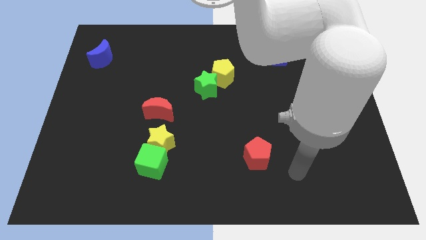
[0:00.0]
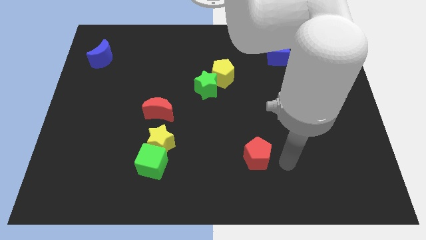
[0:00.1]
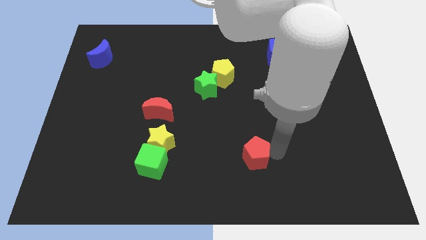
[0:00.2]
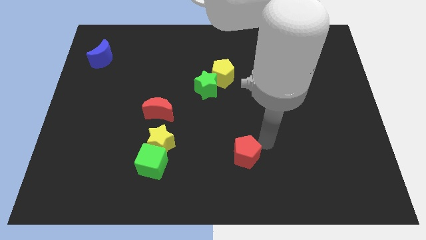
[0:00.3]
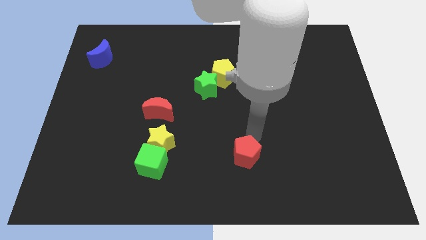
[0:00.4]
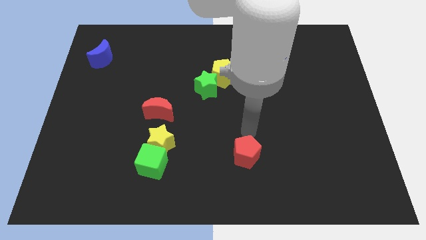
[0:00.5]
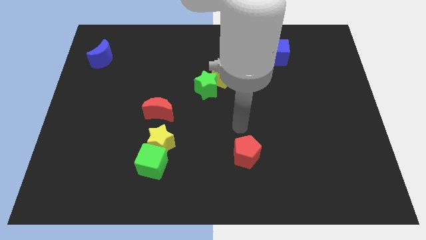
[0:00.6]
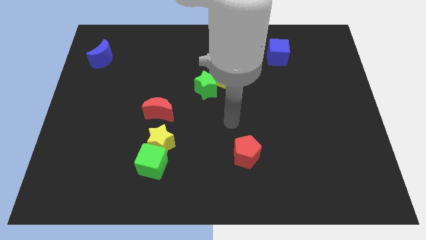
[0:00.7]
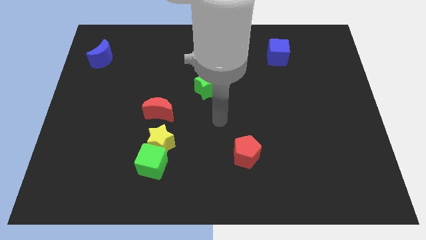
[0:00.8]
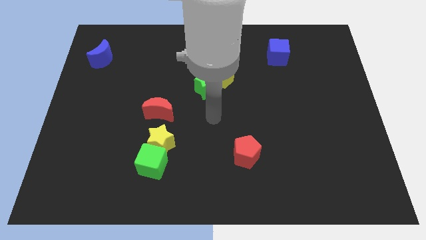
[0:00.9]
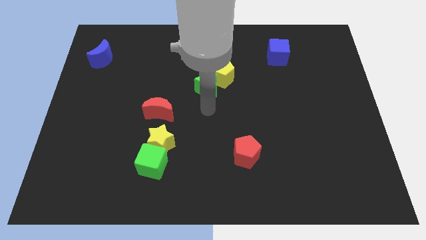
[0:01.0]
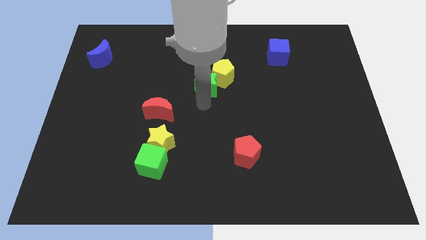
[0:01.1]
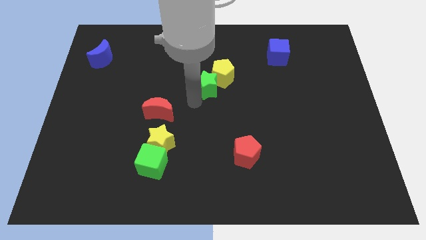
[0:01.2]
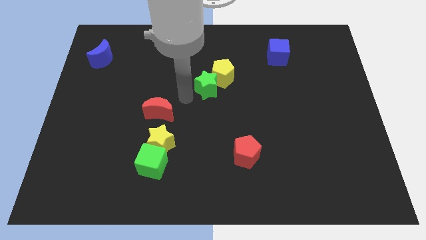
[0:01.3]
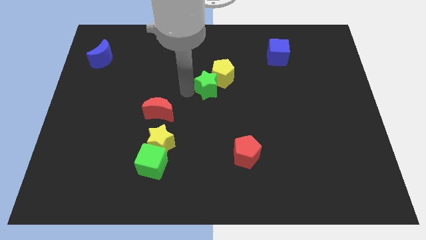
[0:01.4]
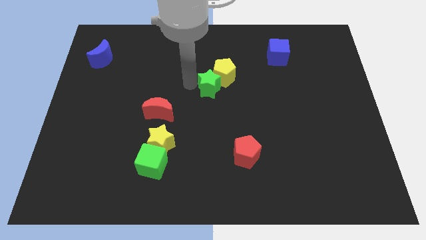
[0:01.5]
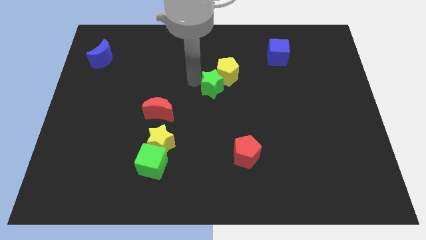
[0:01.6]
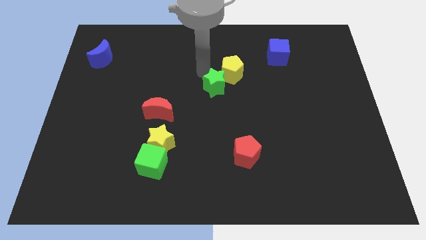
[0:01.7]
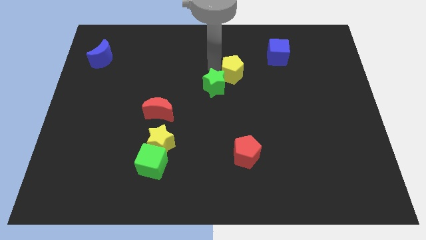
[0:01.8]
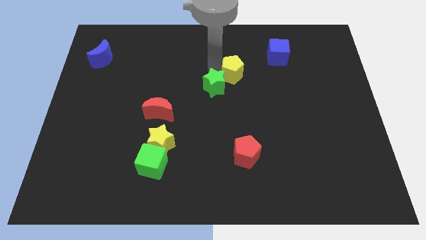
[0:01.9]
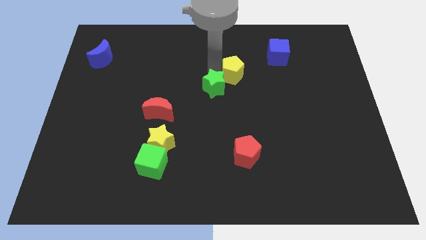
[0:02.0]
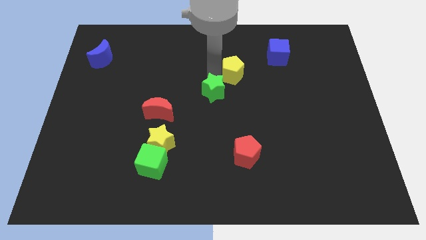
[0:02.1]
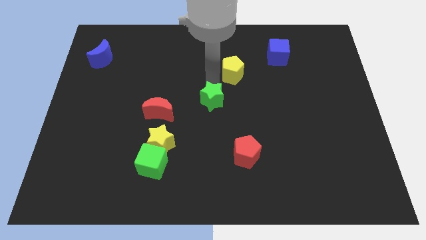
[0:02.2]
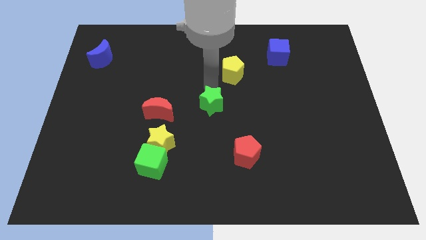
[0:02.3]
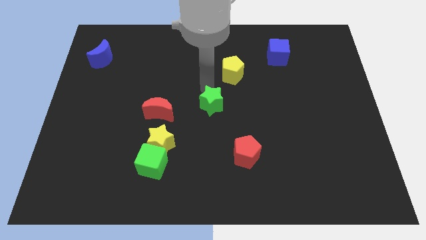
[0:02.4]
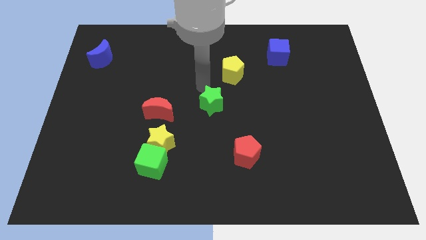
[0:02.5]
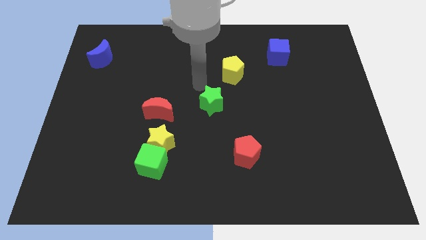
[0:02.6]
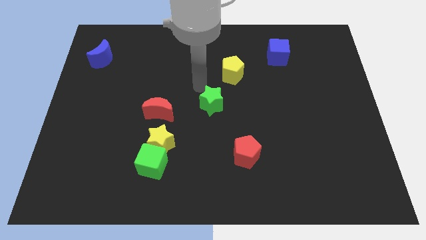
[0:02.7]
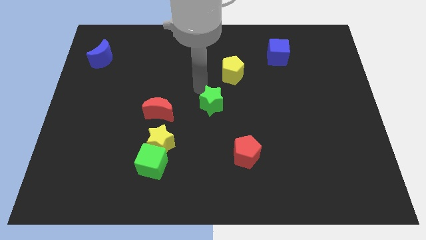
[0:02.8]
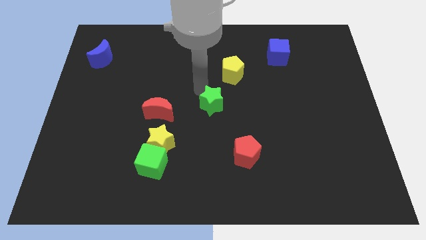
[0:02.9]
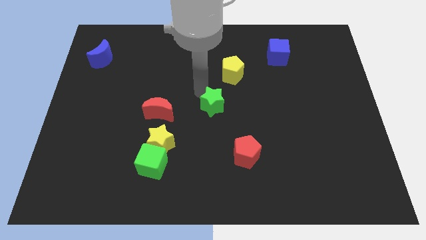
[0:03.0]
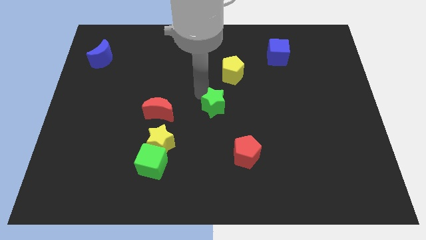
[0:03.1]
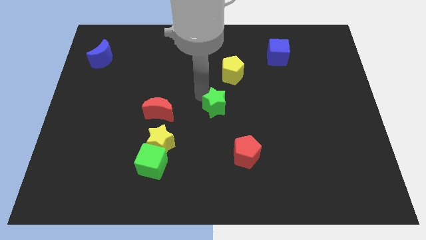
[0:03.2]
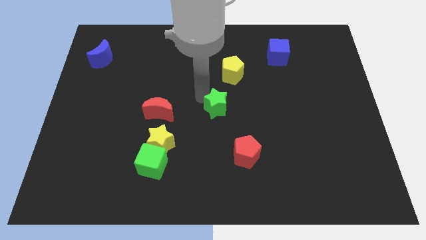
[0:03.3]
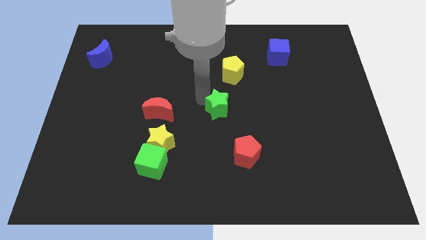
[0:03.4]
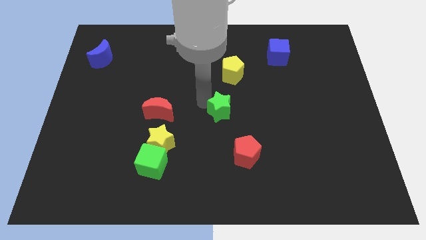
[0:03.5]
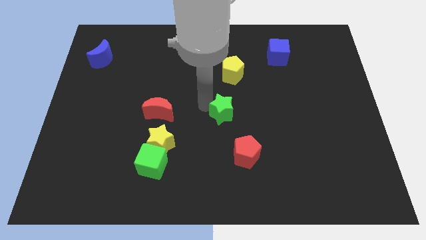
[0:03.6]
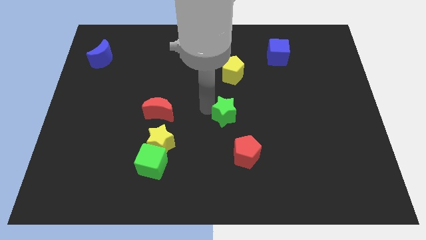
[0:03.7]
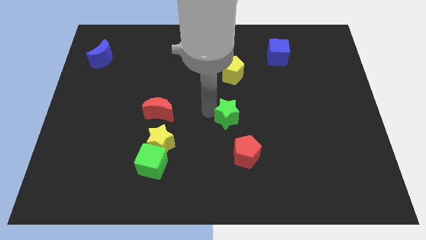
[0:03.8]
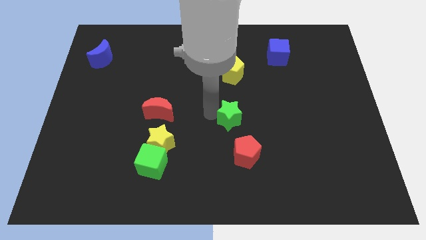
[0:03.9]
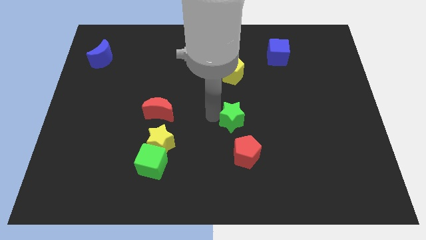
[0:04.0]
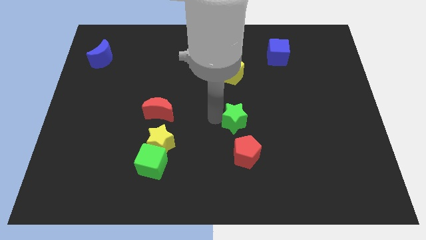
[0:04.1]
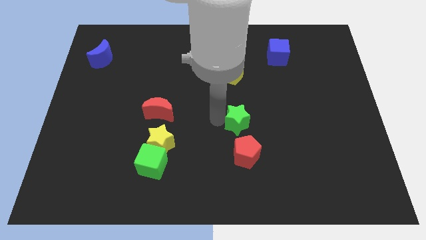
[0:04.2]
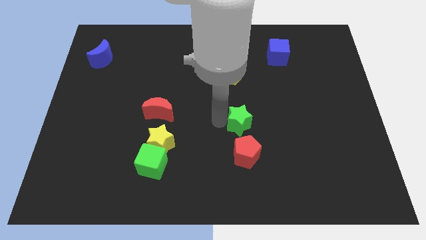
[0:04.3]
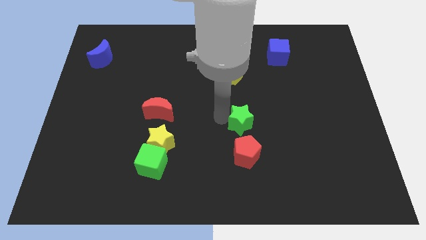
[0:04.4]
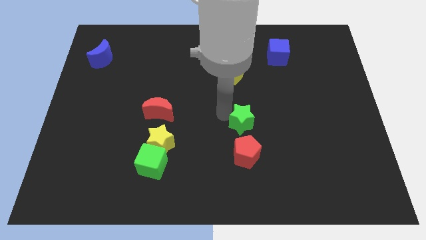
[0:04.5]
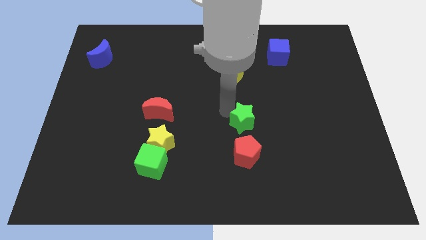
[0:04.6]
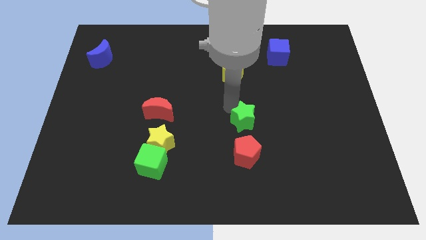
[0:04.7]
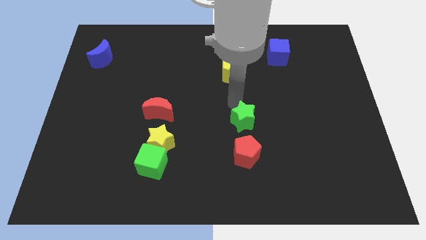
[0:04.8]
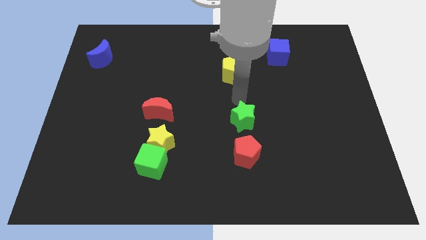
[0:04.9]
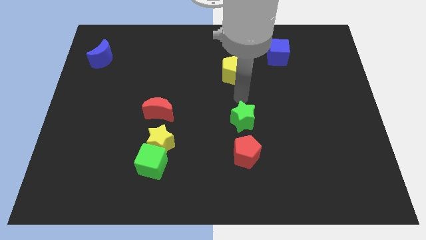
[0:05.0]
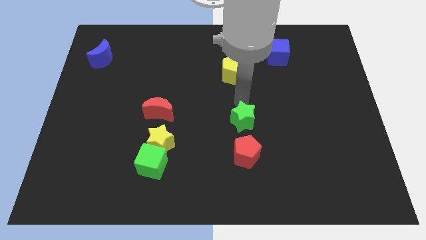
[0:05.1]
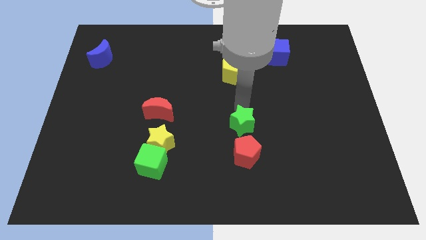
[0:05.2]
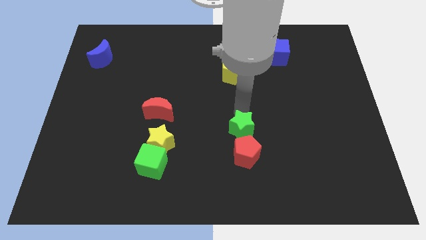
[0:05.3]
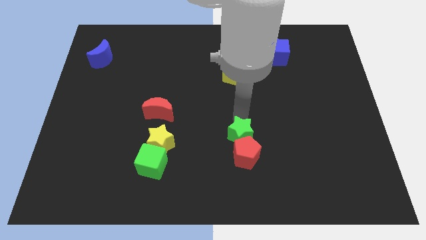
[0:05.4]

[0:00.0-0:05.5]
move the green star close to the red pentagon

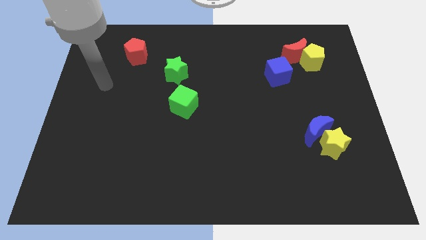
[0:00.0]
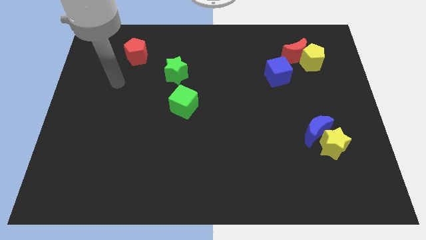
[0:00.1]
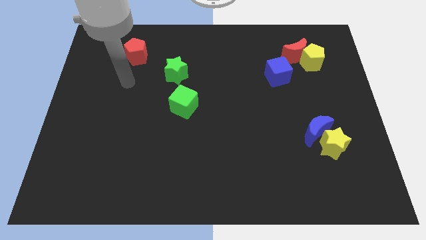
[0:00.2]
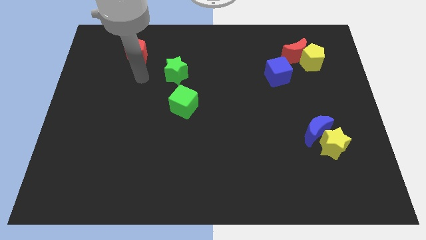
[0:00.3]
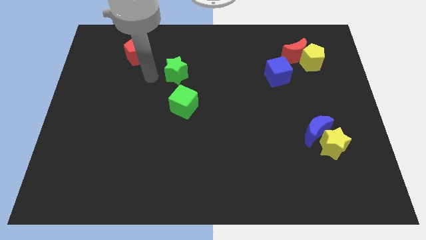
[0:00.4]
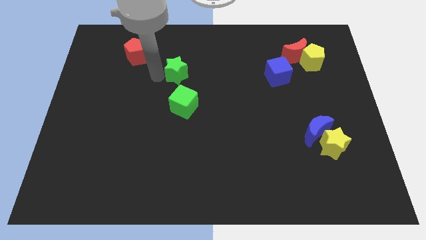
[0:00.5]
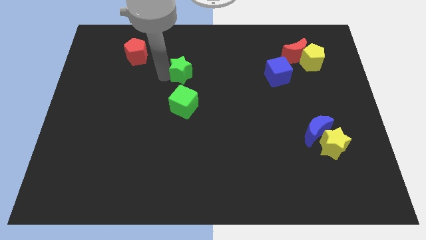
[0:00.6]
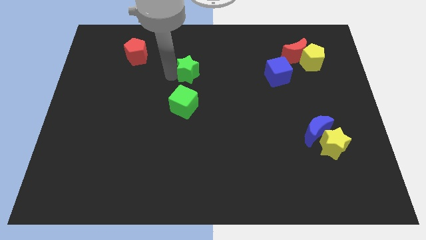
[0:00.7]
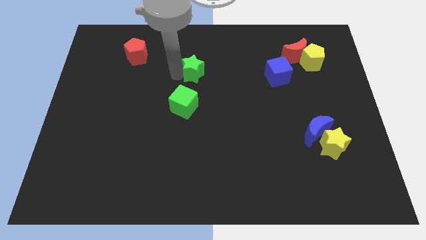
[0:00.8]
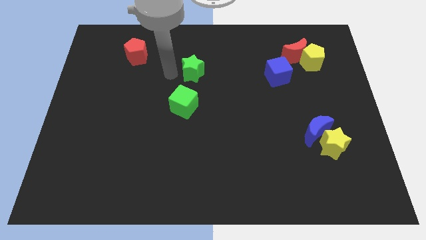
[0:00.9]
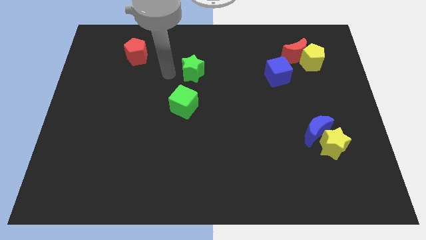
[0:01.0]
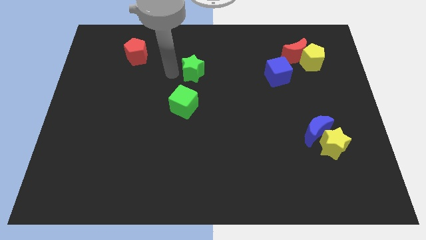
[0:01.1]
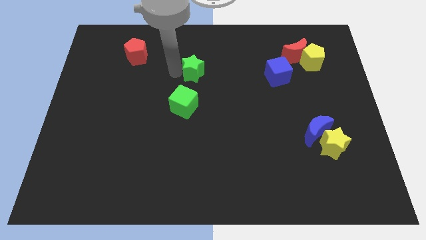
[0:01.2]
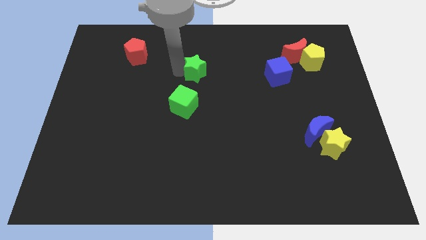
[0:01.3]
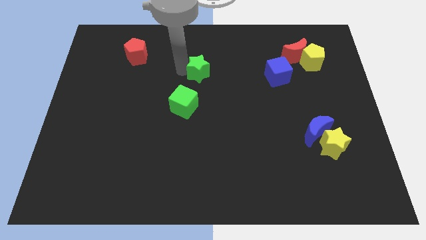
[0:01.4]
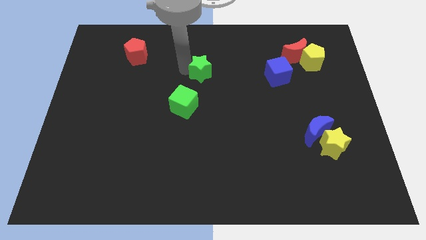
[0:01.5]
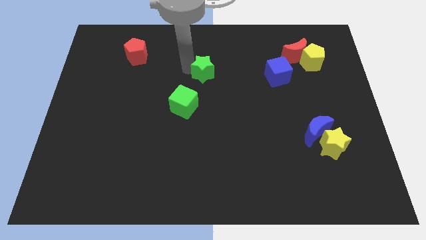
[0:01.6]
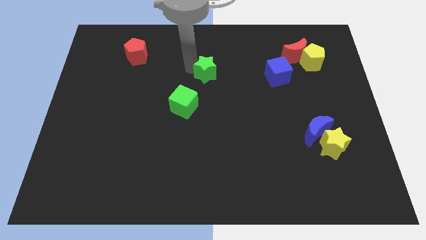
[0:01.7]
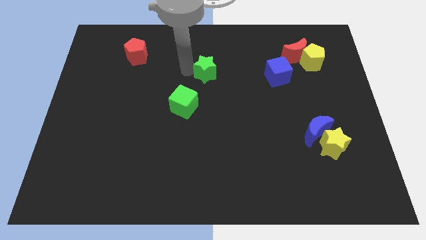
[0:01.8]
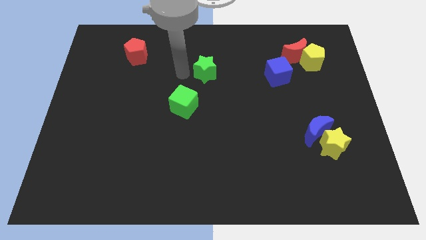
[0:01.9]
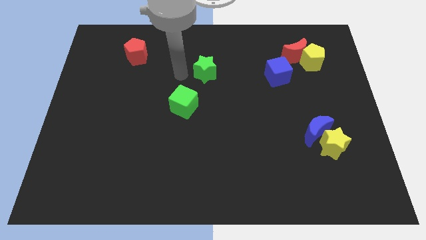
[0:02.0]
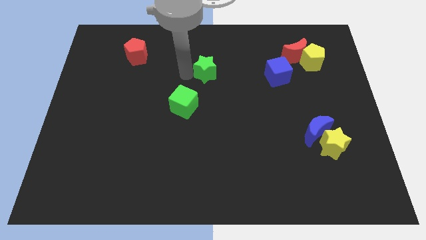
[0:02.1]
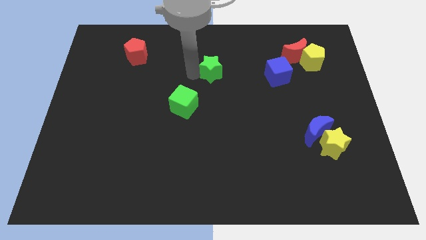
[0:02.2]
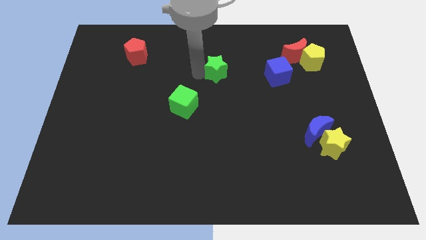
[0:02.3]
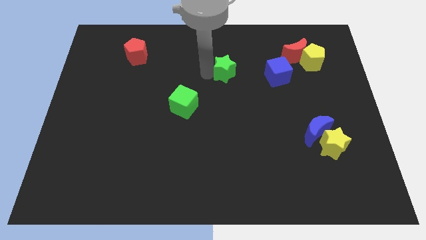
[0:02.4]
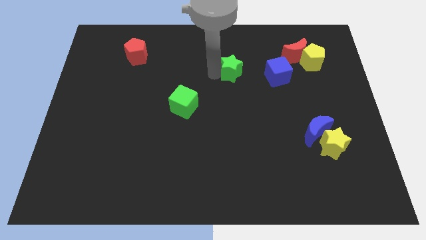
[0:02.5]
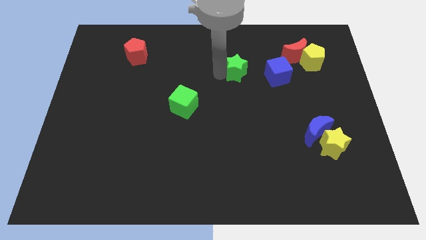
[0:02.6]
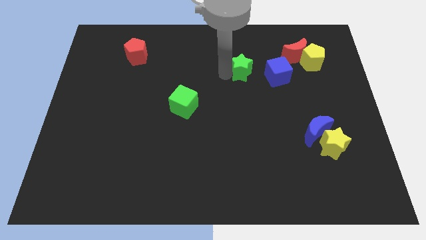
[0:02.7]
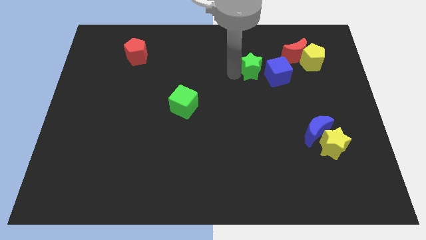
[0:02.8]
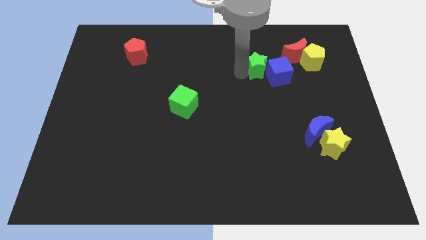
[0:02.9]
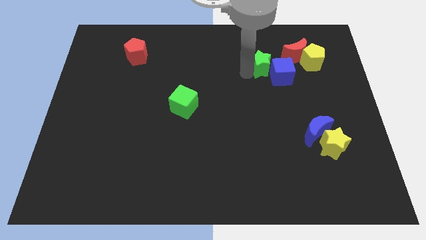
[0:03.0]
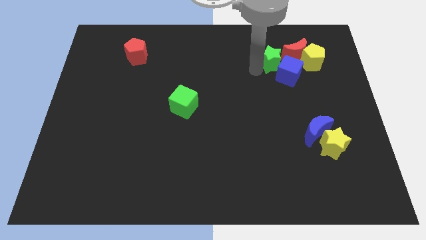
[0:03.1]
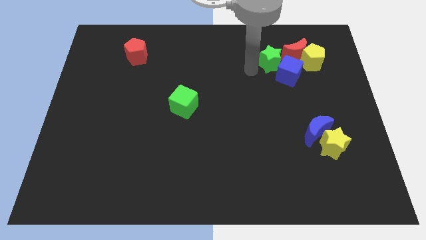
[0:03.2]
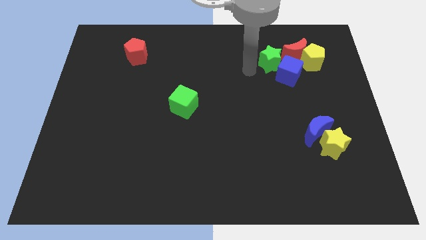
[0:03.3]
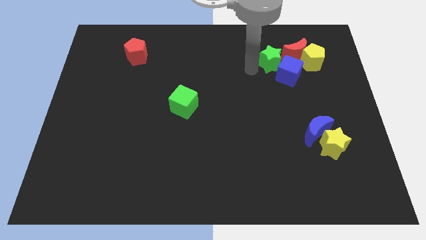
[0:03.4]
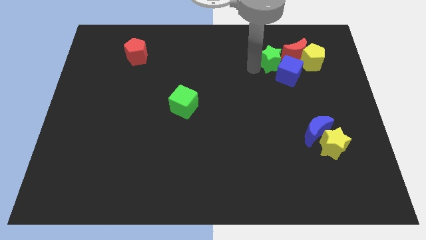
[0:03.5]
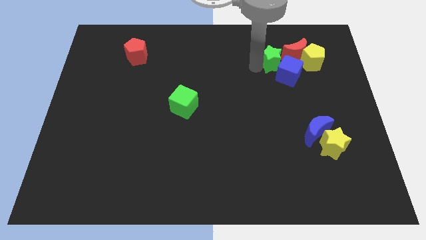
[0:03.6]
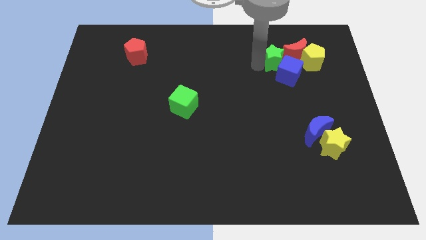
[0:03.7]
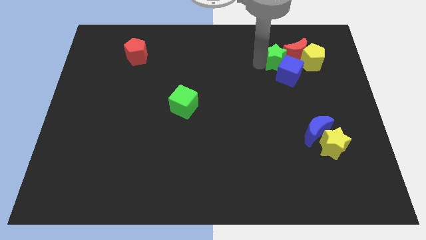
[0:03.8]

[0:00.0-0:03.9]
slide the green star next to the red moon
